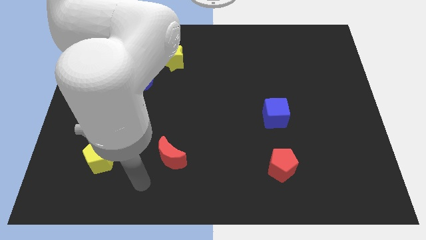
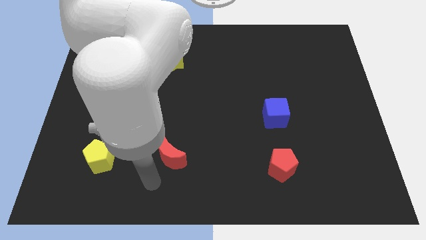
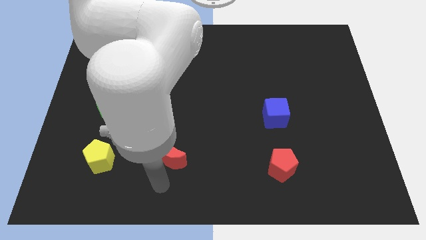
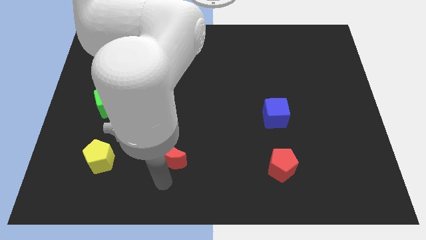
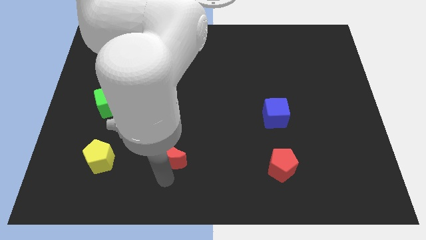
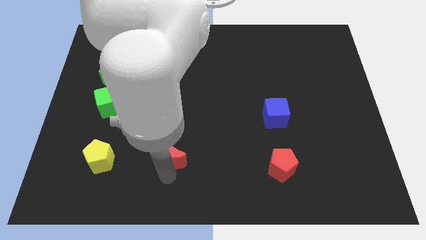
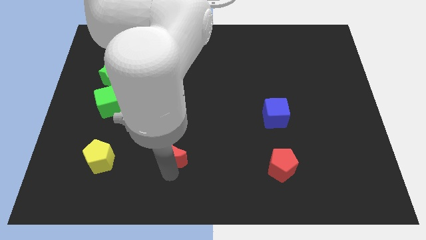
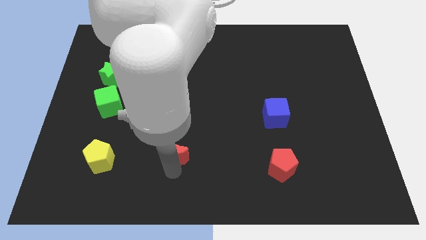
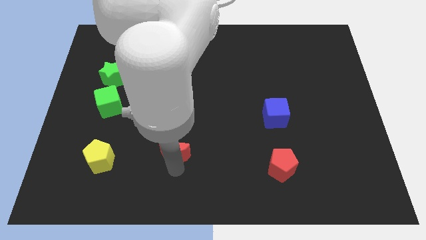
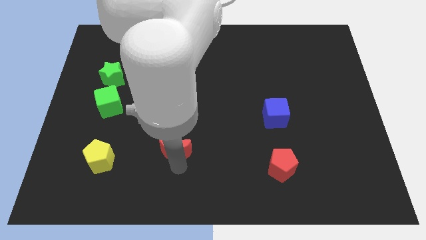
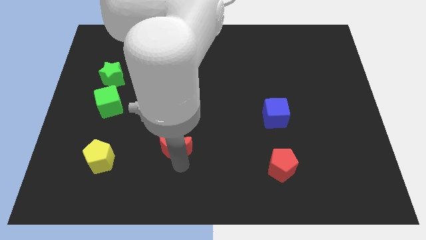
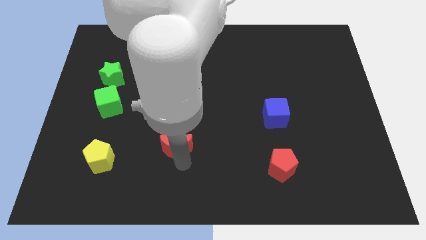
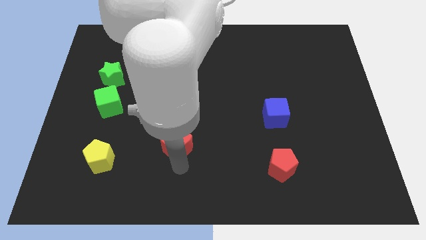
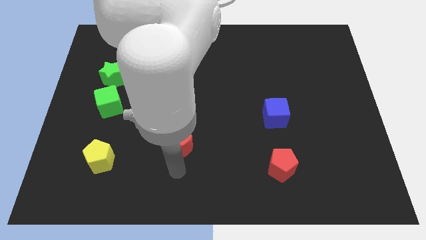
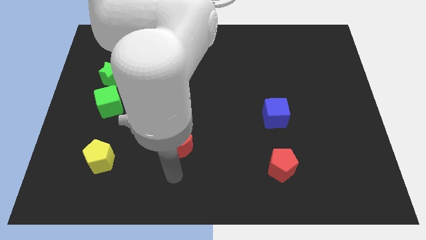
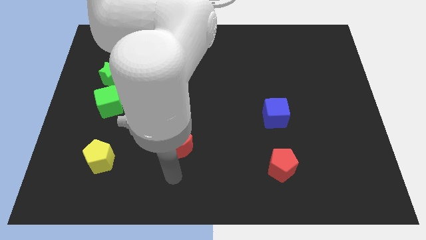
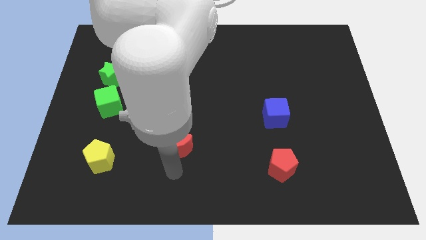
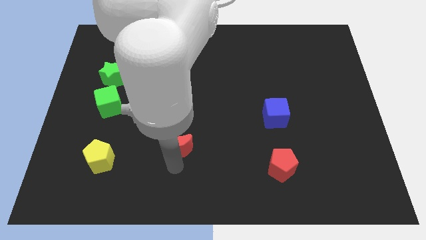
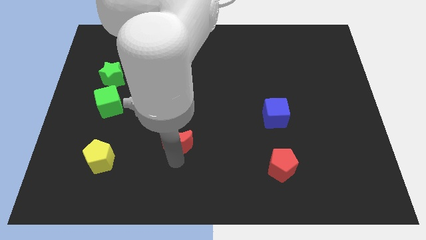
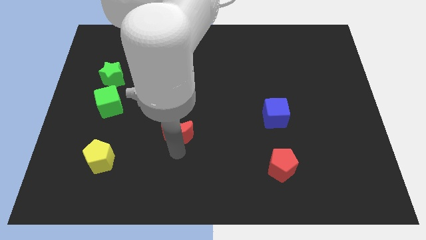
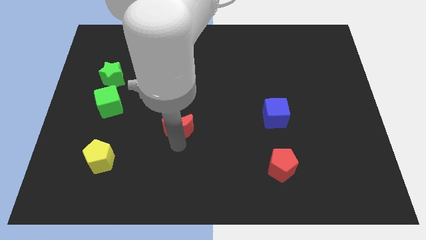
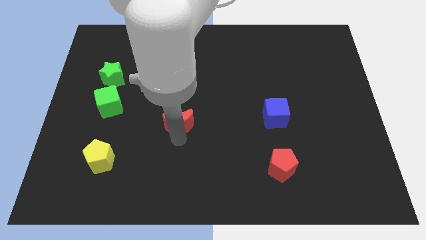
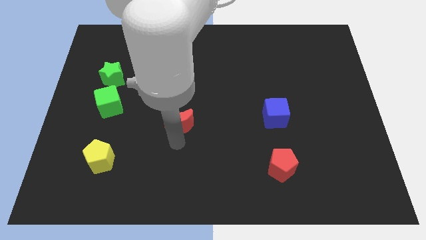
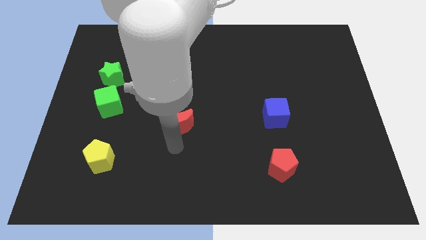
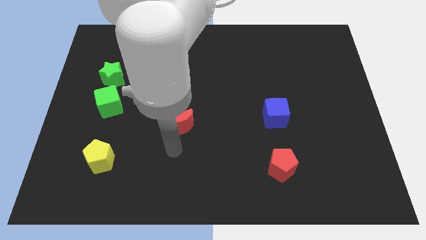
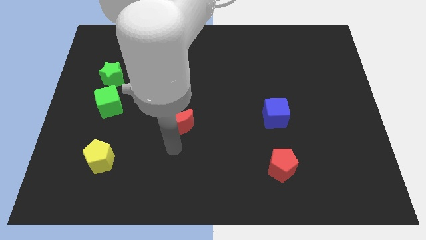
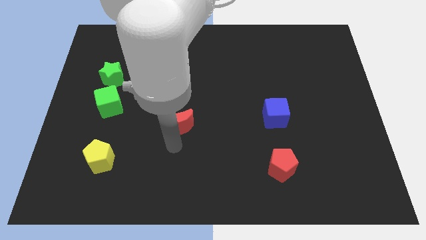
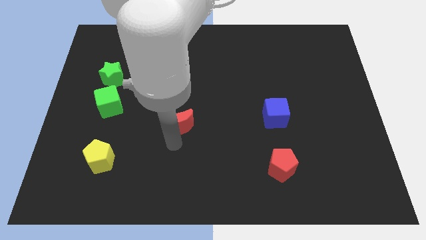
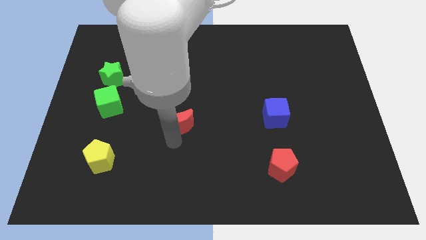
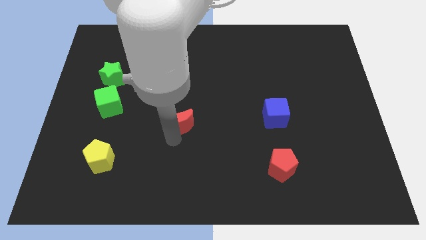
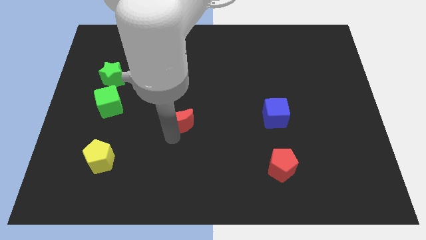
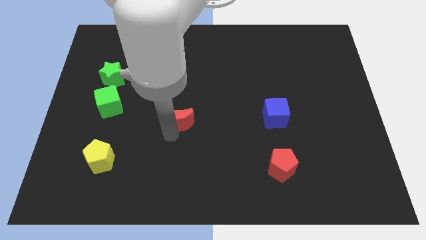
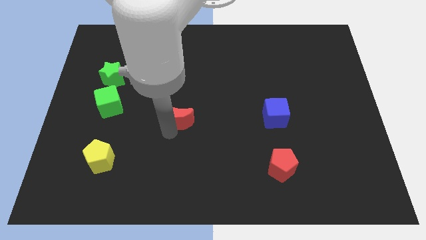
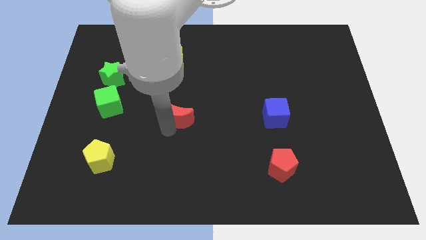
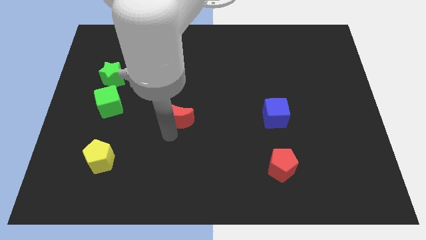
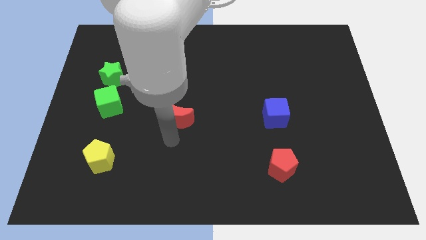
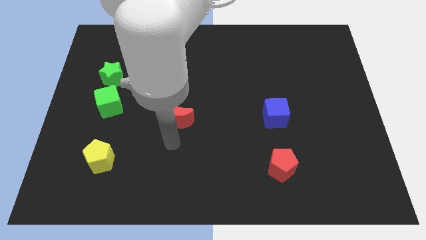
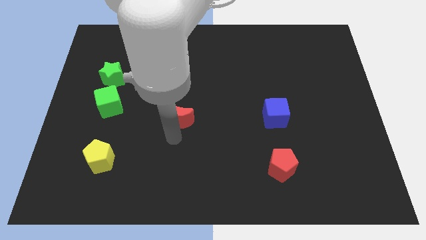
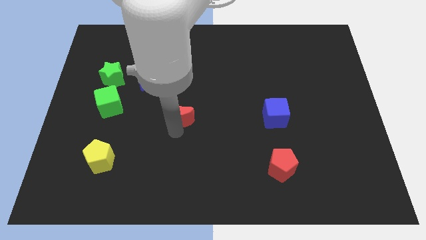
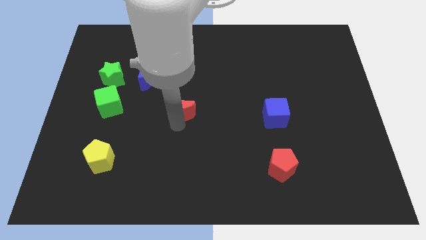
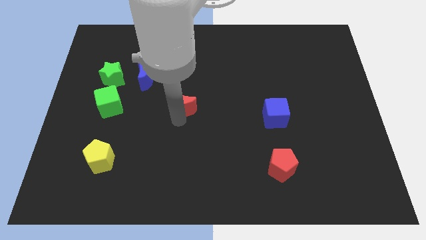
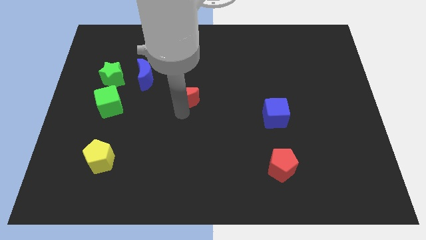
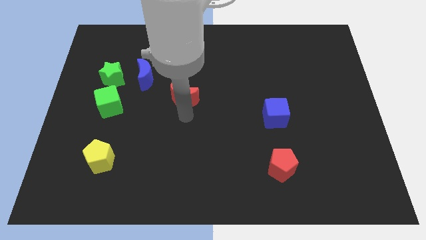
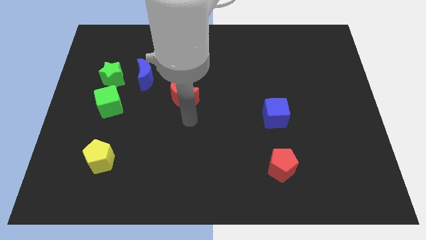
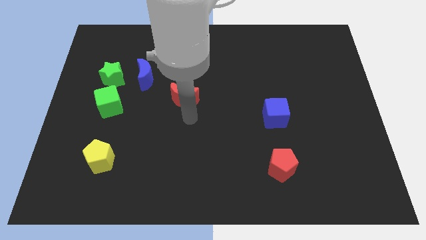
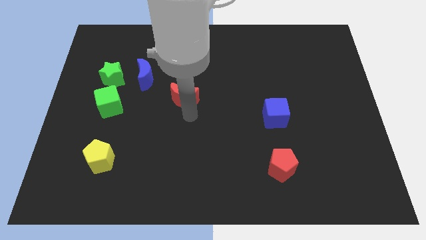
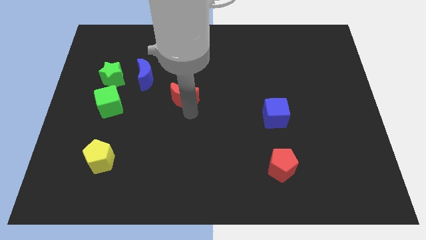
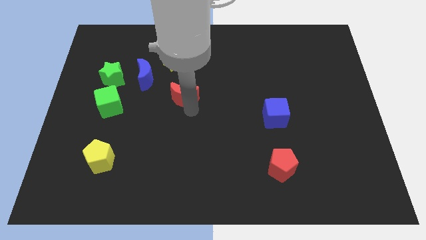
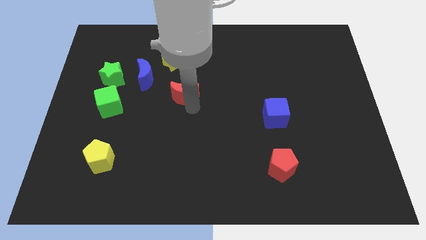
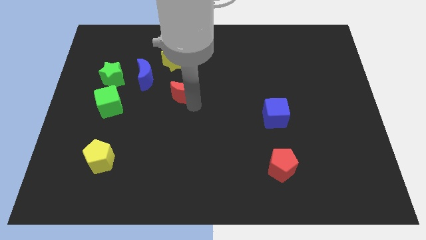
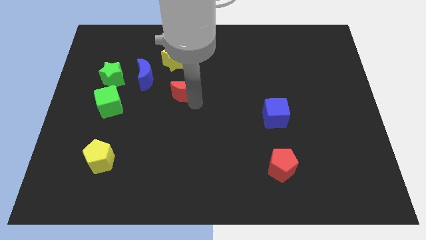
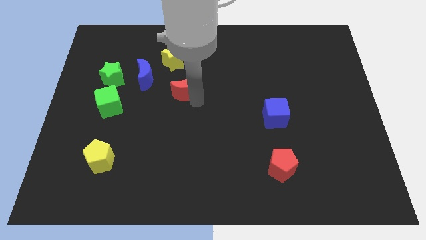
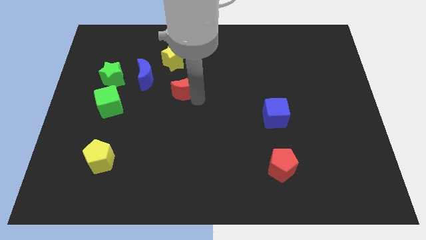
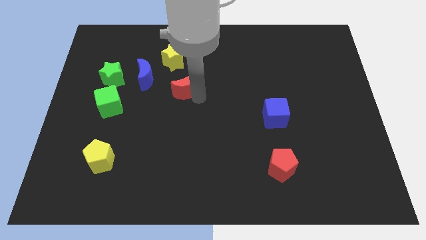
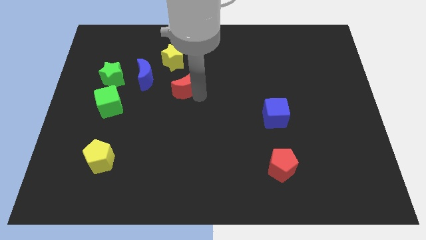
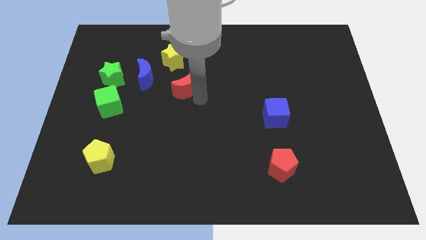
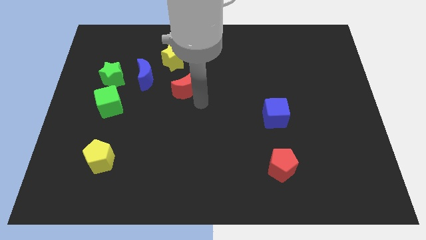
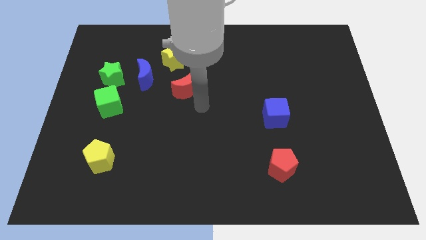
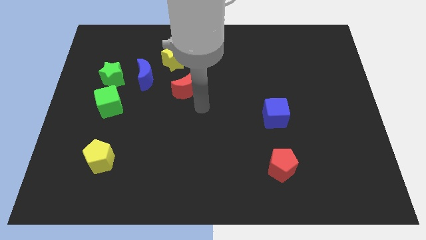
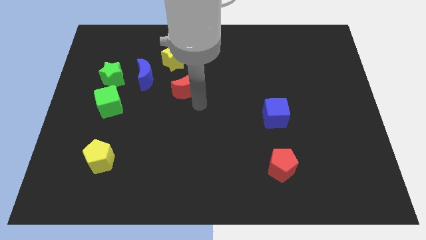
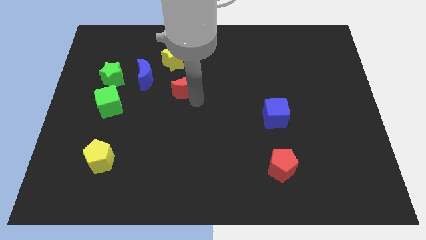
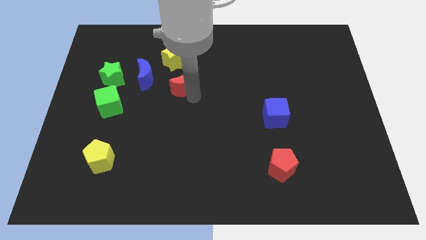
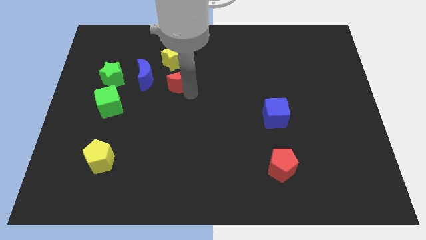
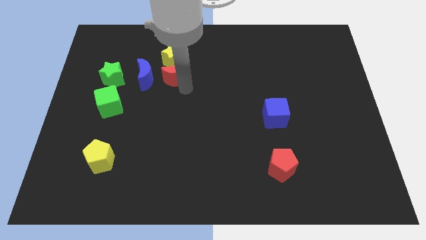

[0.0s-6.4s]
move the red moon close to the yellow star
